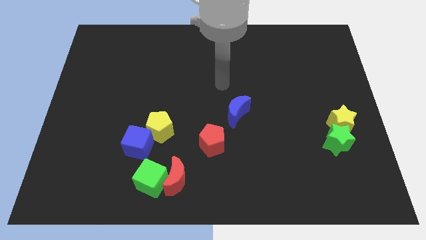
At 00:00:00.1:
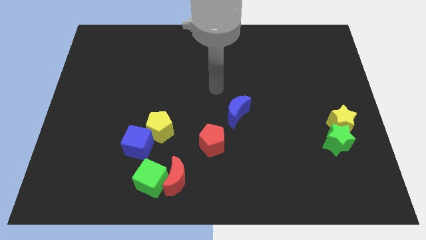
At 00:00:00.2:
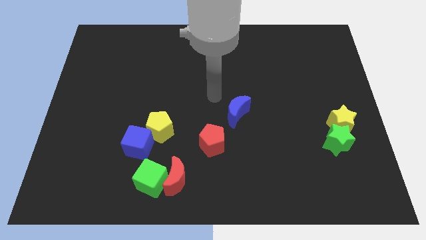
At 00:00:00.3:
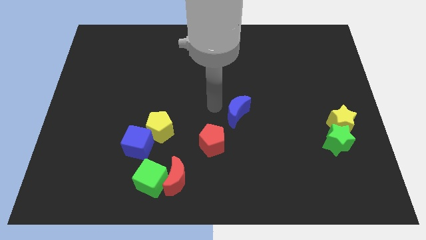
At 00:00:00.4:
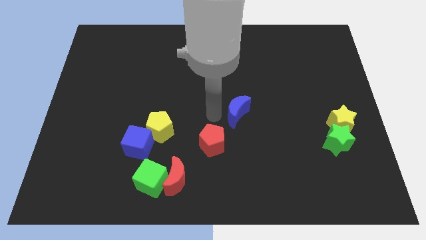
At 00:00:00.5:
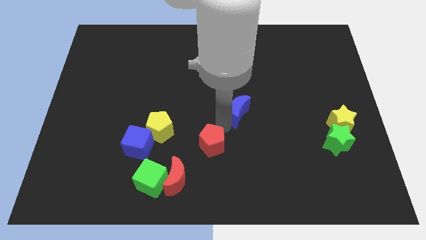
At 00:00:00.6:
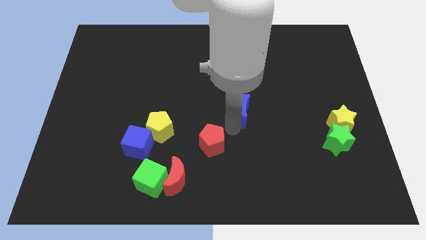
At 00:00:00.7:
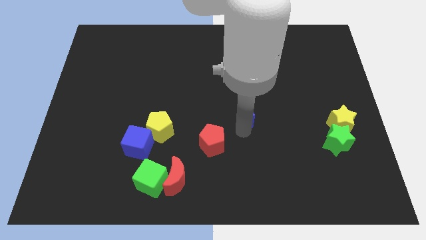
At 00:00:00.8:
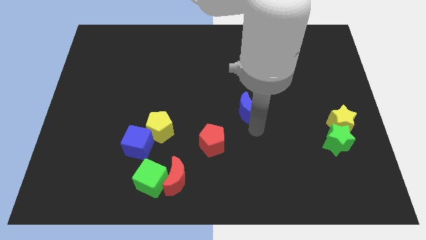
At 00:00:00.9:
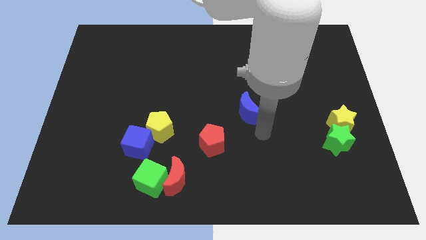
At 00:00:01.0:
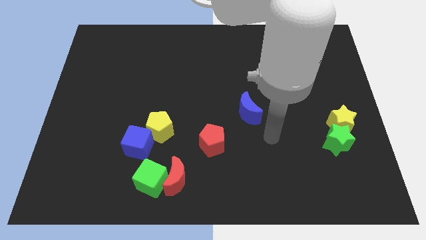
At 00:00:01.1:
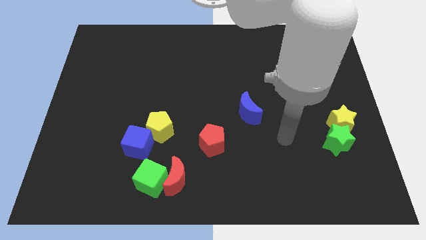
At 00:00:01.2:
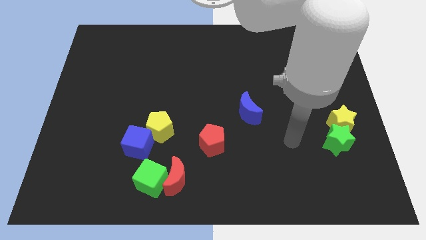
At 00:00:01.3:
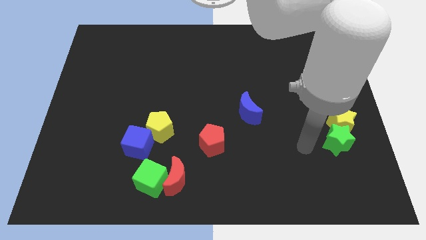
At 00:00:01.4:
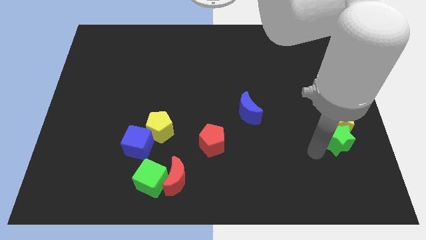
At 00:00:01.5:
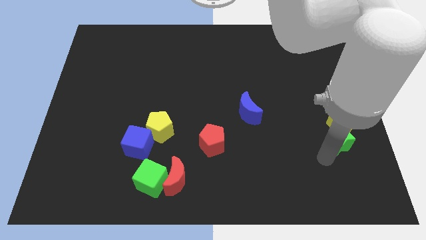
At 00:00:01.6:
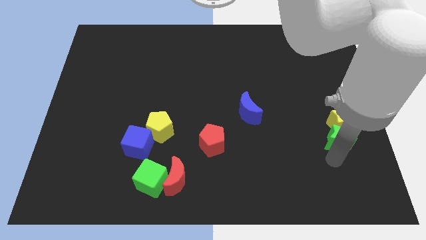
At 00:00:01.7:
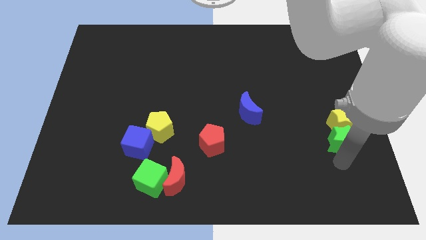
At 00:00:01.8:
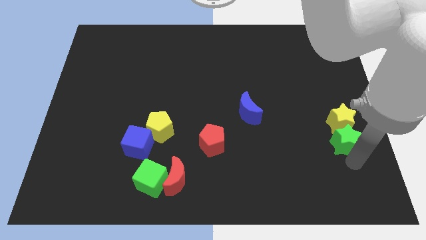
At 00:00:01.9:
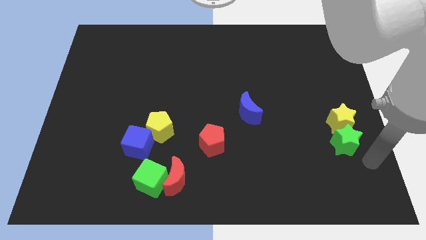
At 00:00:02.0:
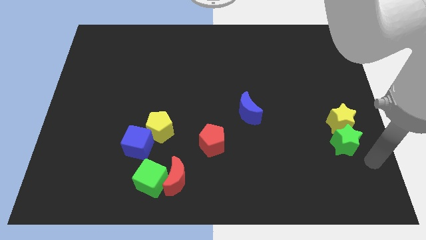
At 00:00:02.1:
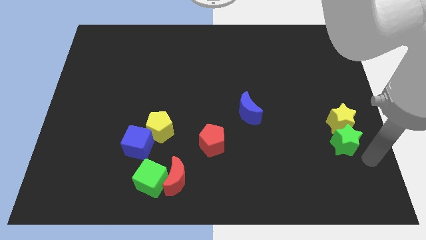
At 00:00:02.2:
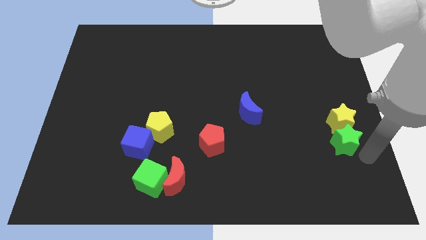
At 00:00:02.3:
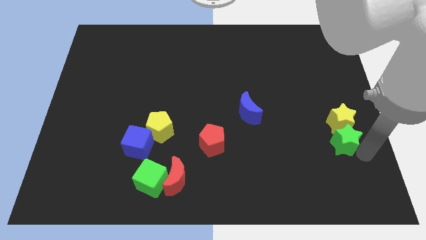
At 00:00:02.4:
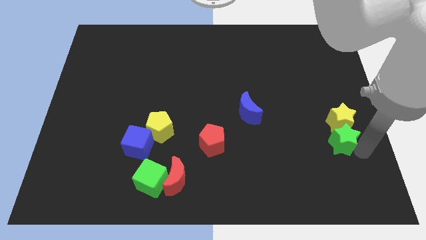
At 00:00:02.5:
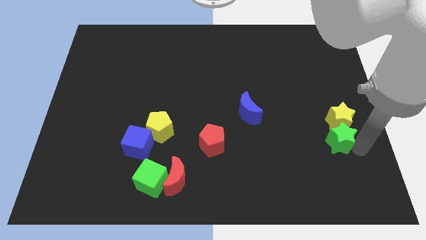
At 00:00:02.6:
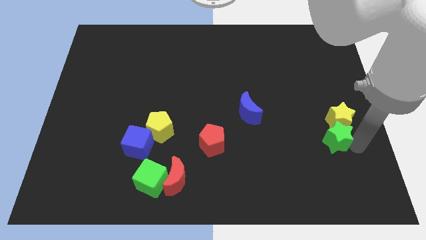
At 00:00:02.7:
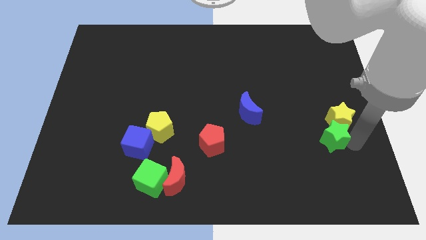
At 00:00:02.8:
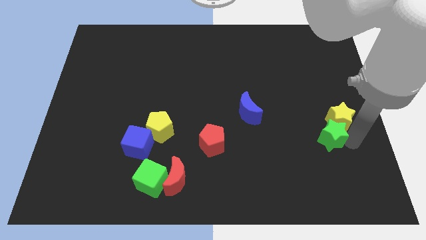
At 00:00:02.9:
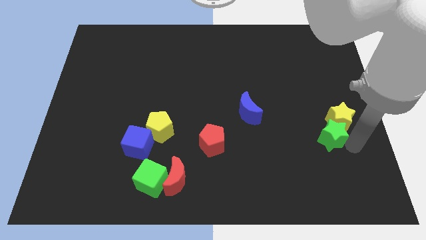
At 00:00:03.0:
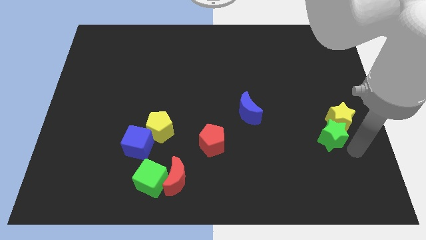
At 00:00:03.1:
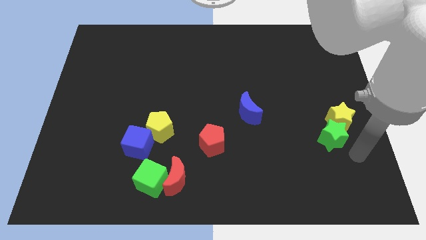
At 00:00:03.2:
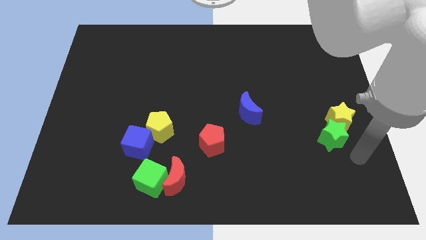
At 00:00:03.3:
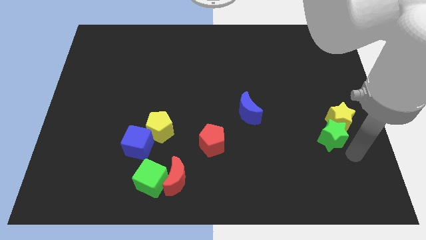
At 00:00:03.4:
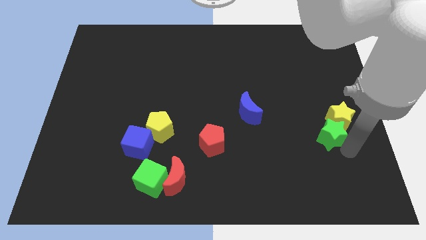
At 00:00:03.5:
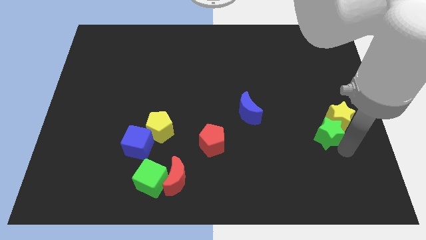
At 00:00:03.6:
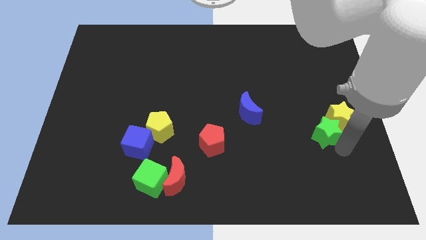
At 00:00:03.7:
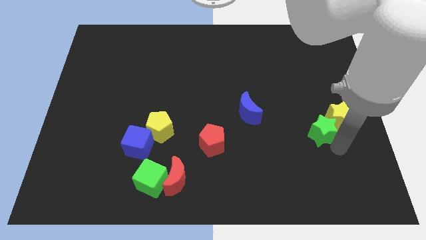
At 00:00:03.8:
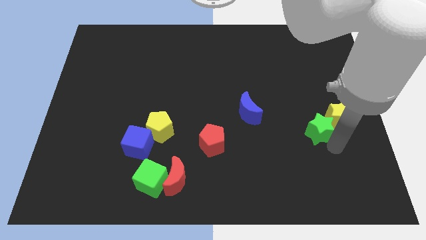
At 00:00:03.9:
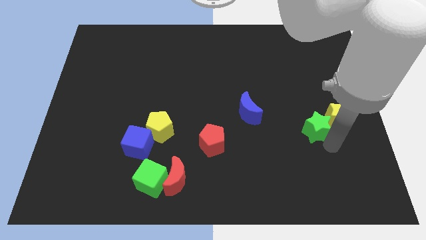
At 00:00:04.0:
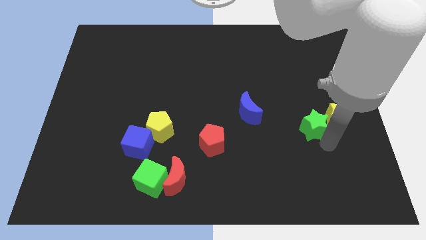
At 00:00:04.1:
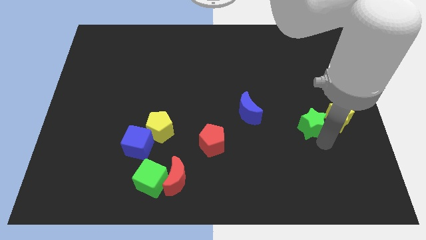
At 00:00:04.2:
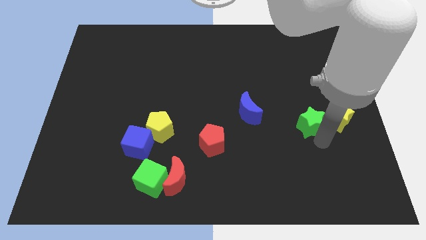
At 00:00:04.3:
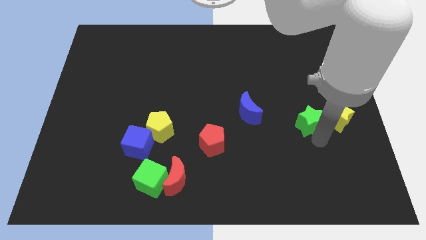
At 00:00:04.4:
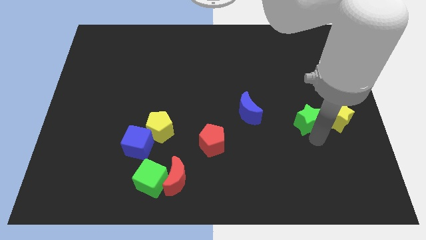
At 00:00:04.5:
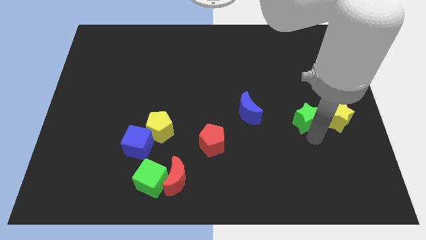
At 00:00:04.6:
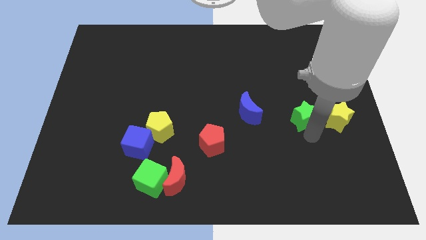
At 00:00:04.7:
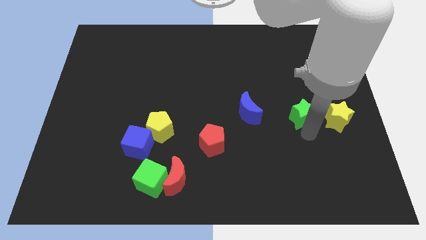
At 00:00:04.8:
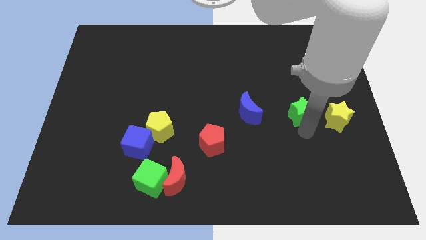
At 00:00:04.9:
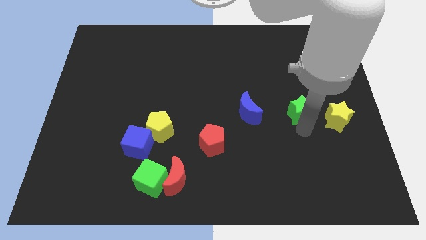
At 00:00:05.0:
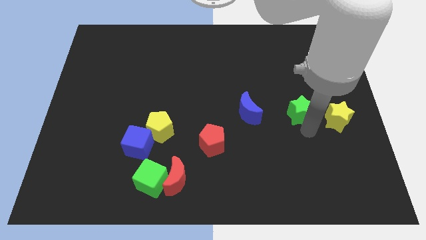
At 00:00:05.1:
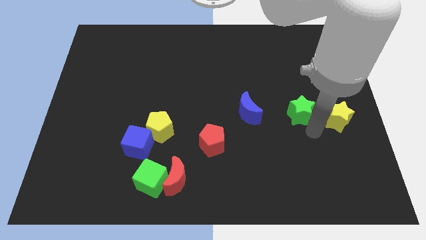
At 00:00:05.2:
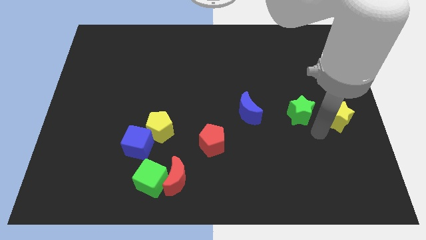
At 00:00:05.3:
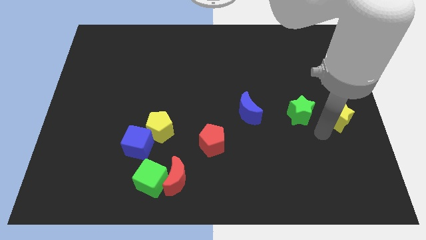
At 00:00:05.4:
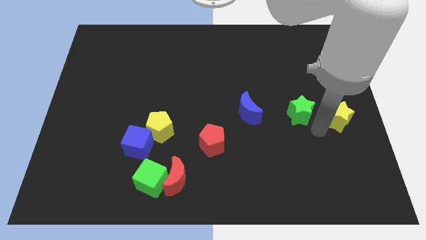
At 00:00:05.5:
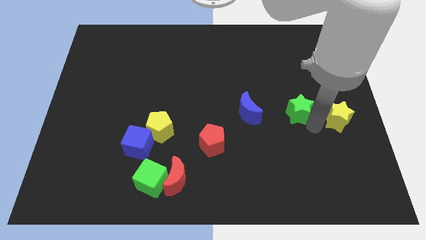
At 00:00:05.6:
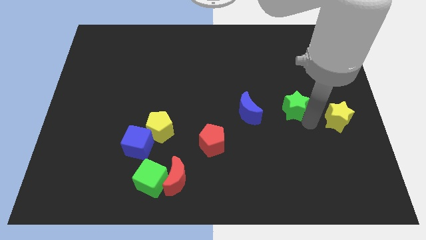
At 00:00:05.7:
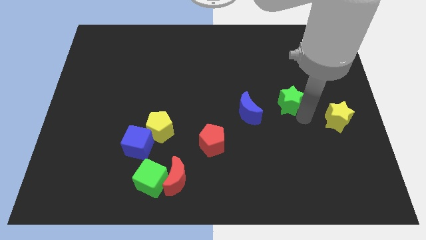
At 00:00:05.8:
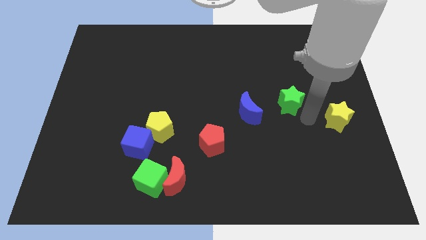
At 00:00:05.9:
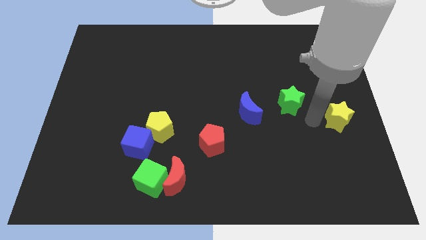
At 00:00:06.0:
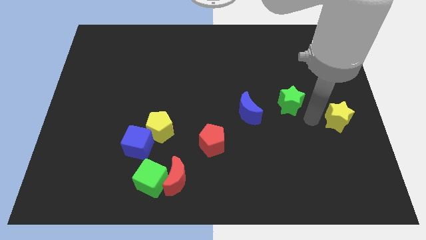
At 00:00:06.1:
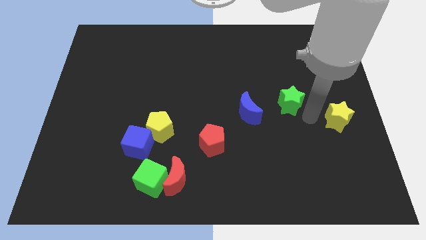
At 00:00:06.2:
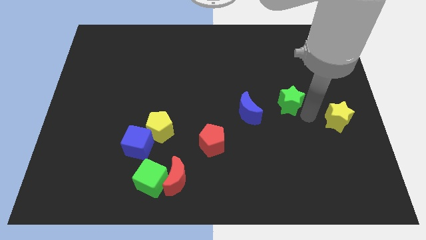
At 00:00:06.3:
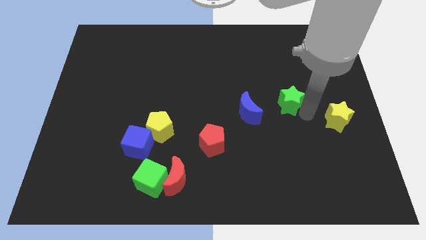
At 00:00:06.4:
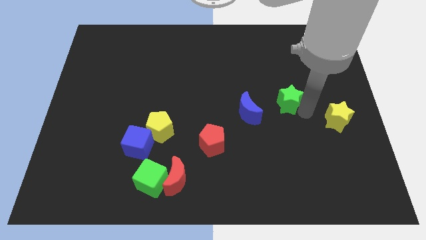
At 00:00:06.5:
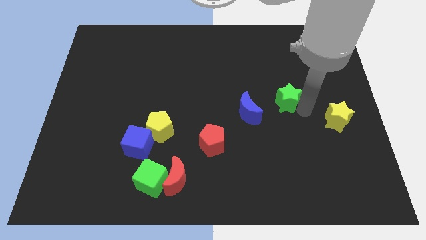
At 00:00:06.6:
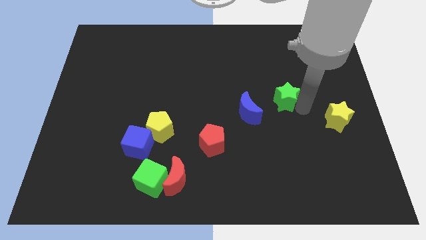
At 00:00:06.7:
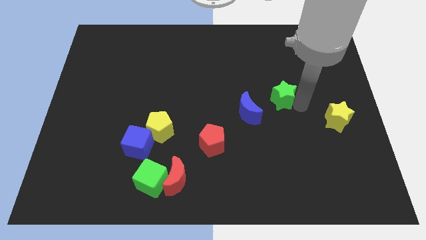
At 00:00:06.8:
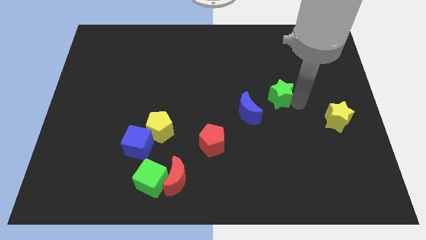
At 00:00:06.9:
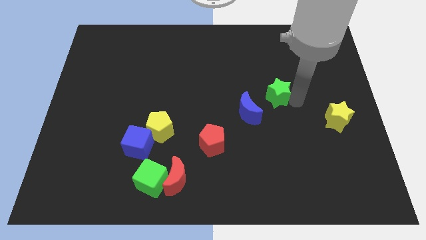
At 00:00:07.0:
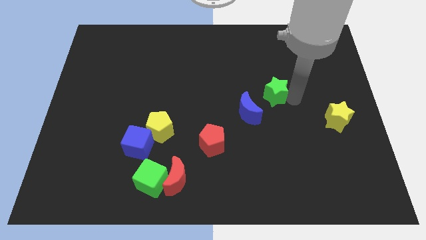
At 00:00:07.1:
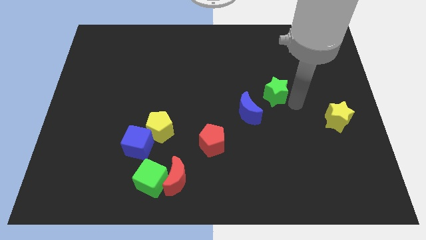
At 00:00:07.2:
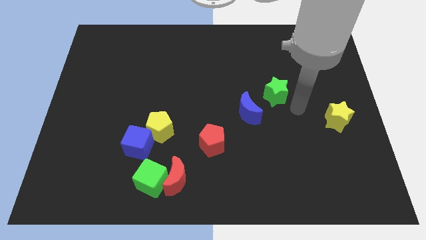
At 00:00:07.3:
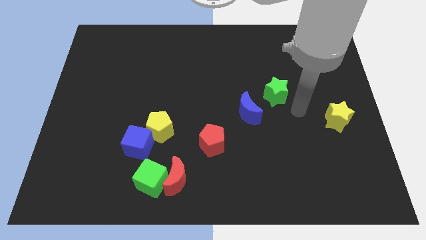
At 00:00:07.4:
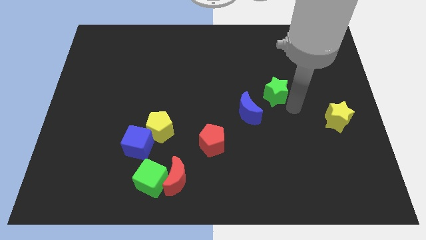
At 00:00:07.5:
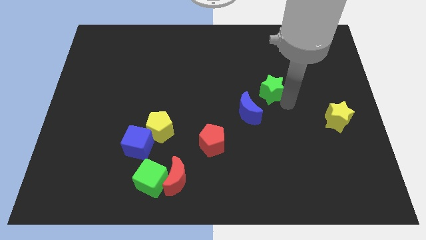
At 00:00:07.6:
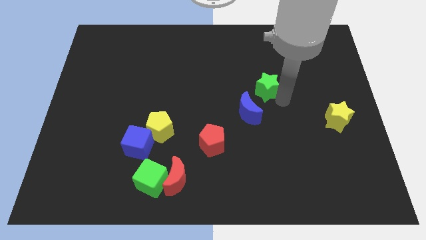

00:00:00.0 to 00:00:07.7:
slide the green star up and then left
